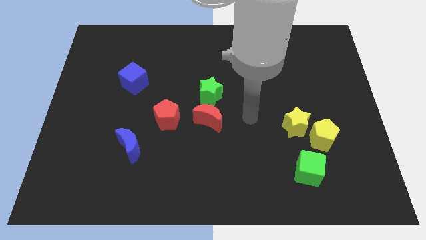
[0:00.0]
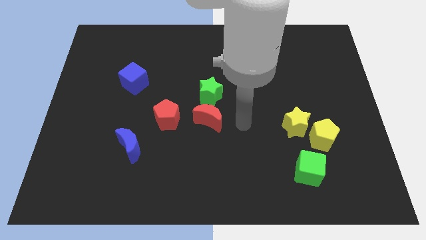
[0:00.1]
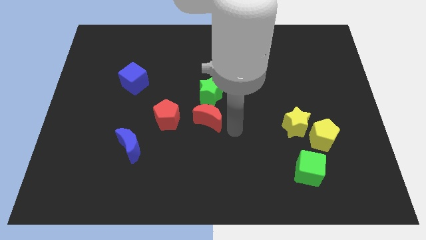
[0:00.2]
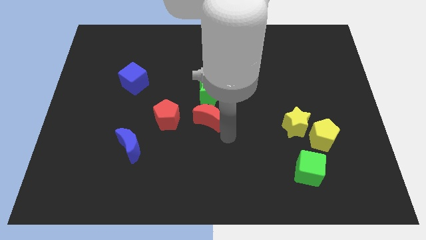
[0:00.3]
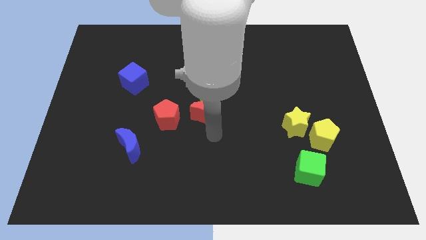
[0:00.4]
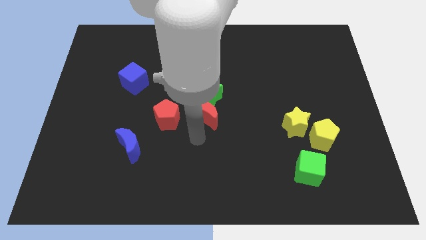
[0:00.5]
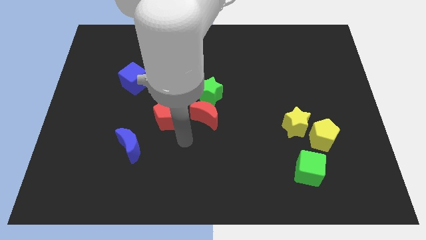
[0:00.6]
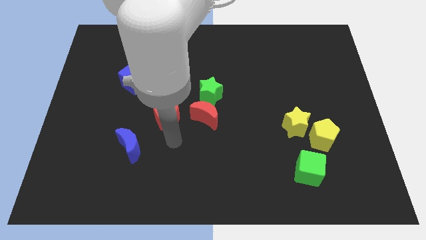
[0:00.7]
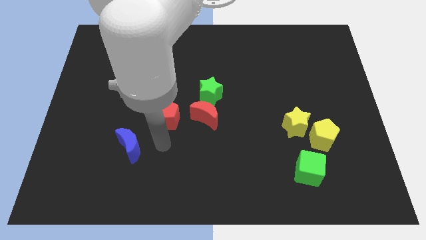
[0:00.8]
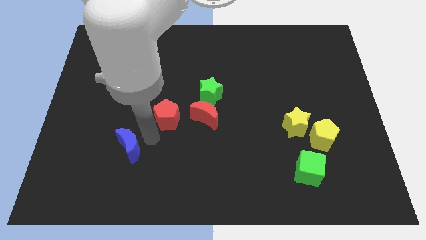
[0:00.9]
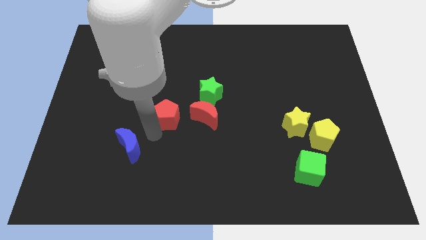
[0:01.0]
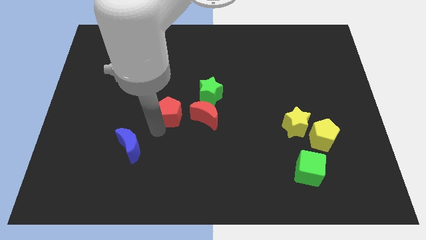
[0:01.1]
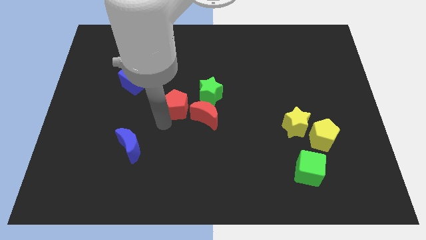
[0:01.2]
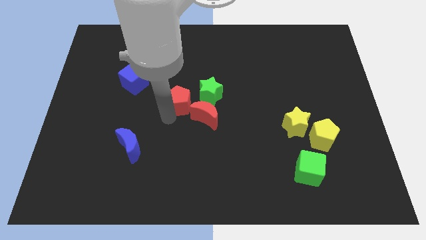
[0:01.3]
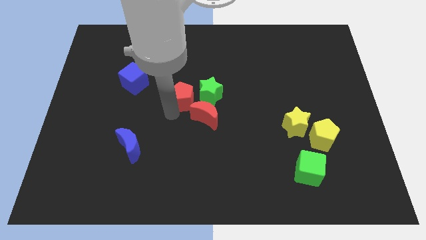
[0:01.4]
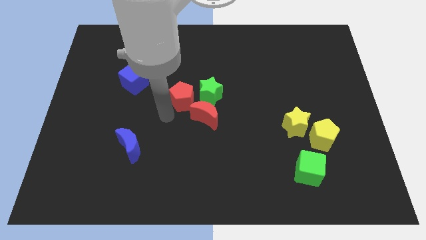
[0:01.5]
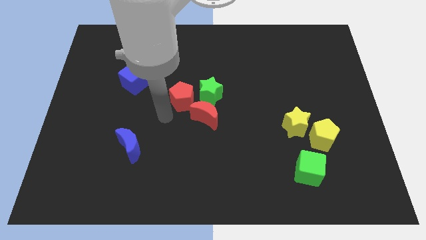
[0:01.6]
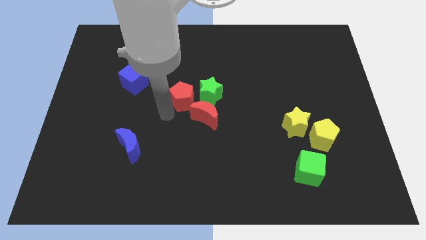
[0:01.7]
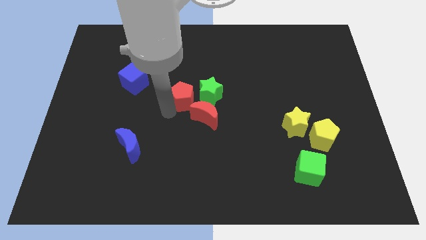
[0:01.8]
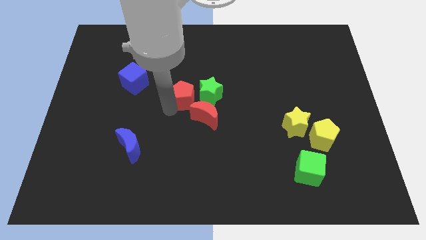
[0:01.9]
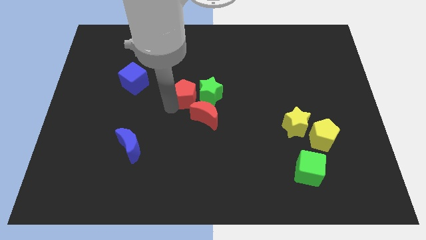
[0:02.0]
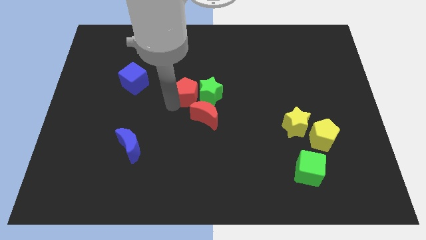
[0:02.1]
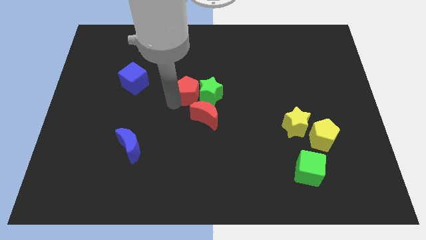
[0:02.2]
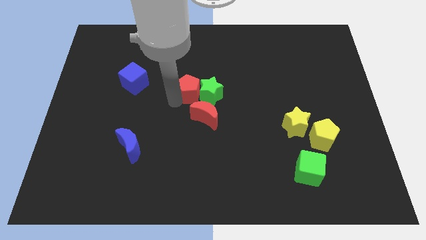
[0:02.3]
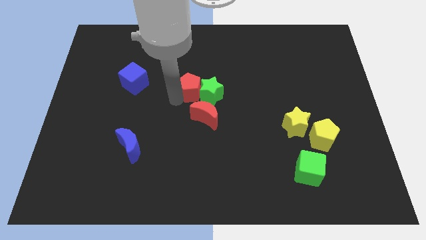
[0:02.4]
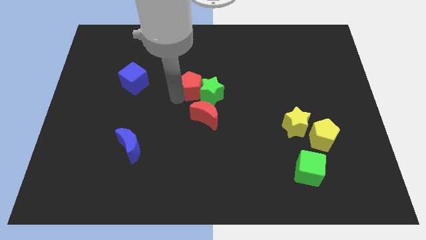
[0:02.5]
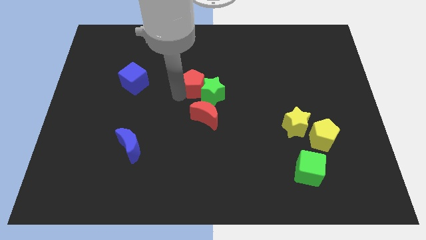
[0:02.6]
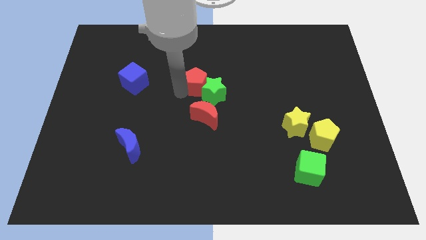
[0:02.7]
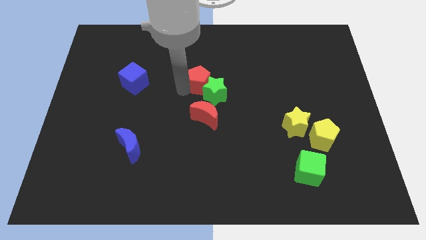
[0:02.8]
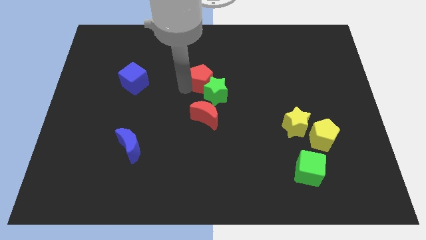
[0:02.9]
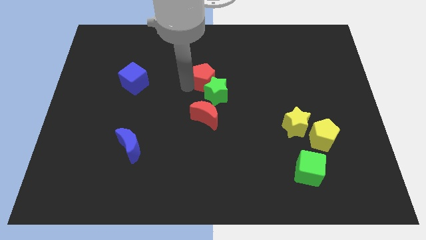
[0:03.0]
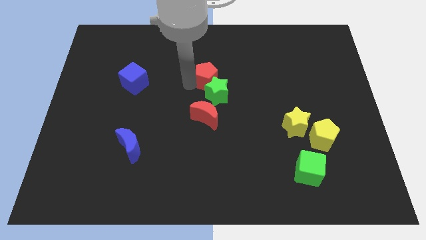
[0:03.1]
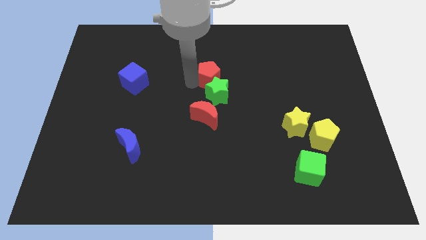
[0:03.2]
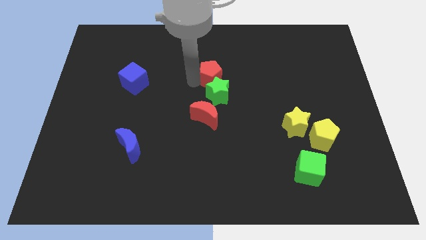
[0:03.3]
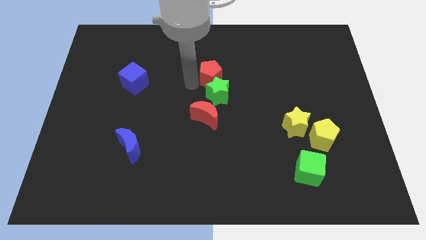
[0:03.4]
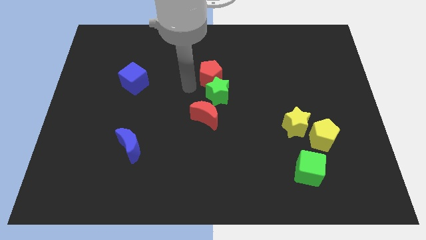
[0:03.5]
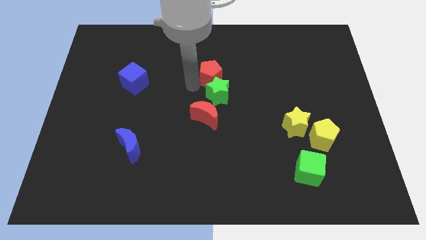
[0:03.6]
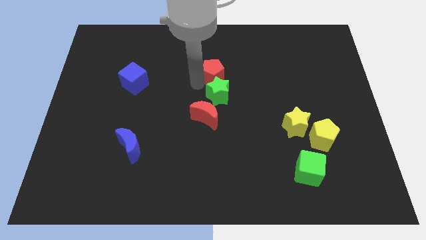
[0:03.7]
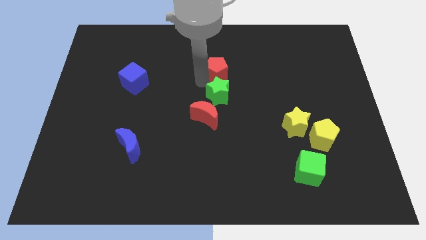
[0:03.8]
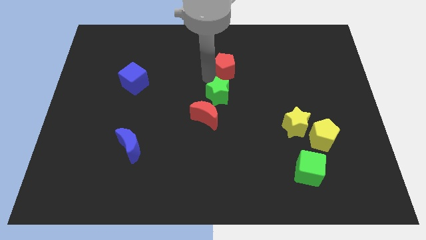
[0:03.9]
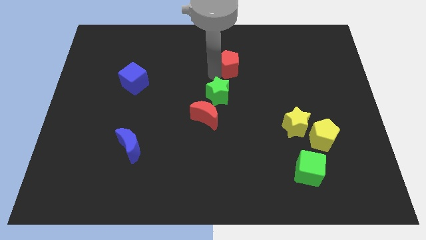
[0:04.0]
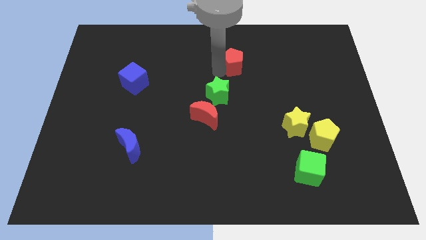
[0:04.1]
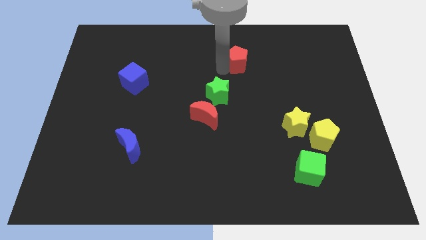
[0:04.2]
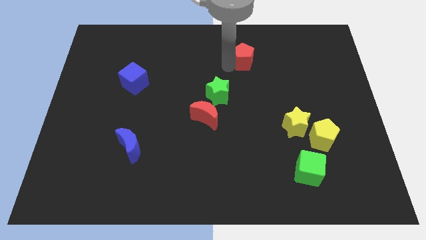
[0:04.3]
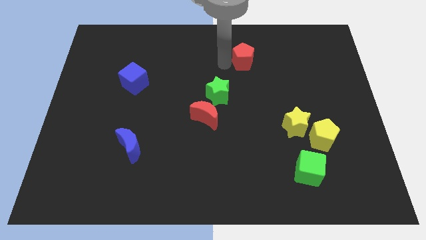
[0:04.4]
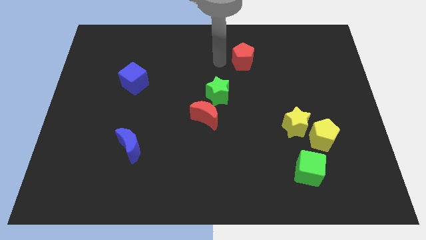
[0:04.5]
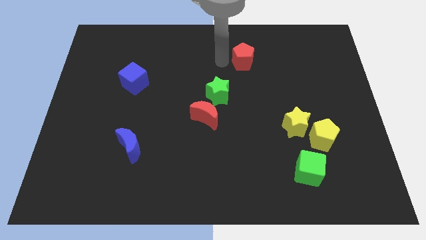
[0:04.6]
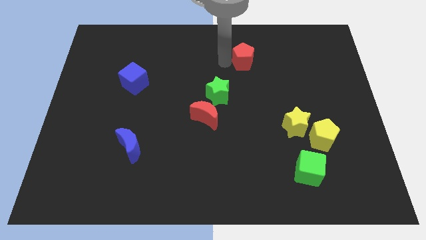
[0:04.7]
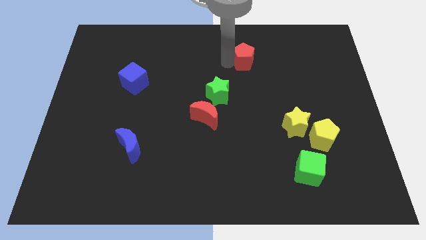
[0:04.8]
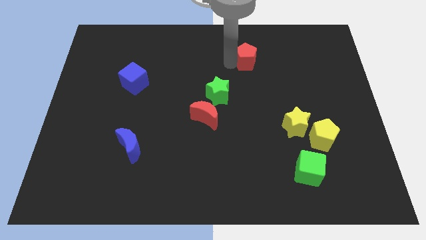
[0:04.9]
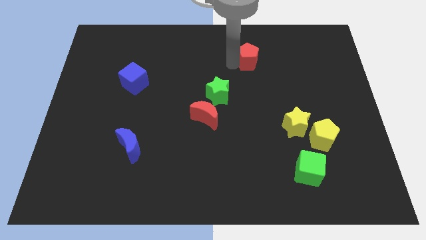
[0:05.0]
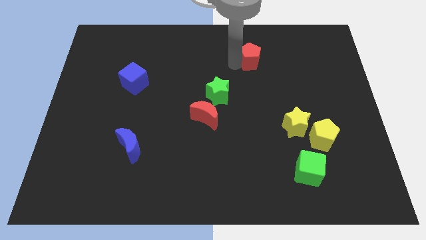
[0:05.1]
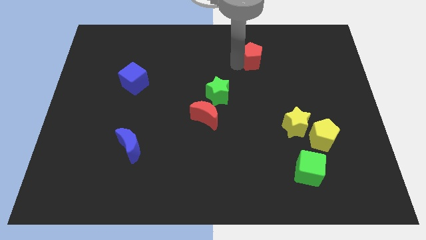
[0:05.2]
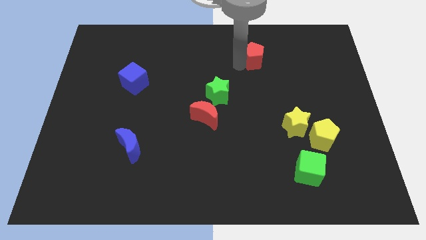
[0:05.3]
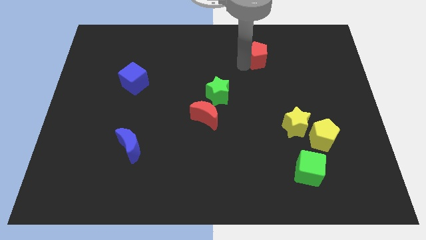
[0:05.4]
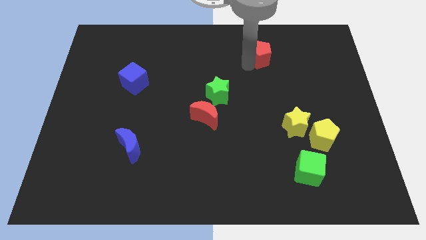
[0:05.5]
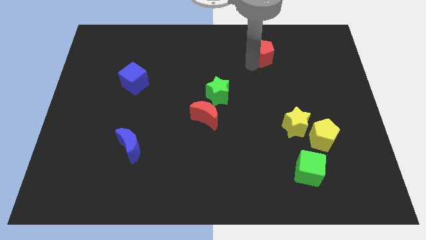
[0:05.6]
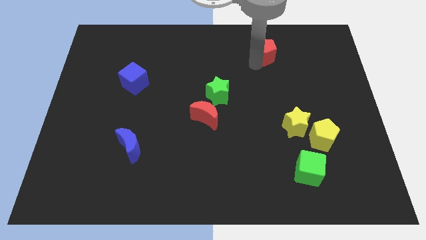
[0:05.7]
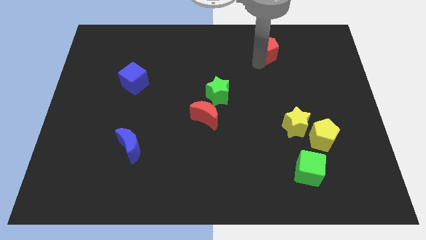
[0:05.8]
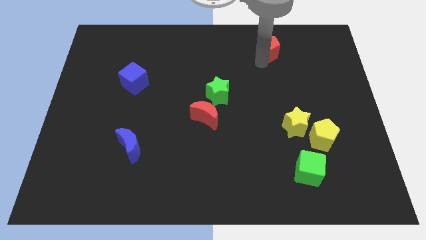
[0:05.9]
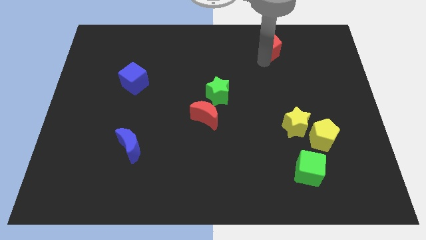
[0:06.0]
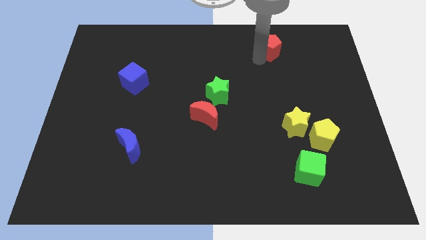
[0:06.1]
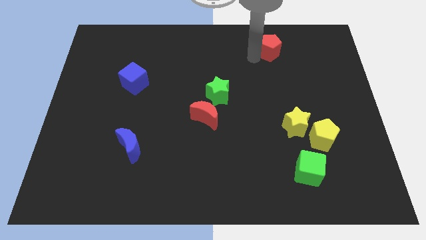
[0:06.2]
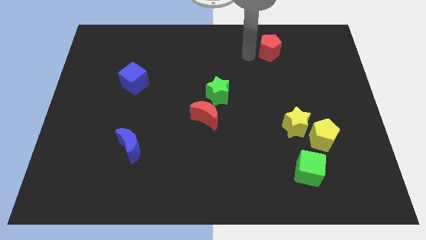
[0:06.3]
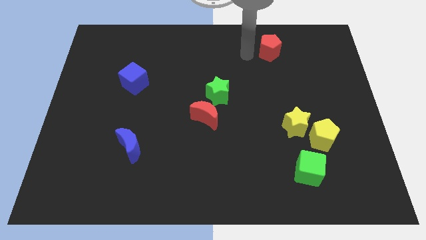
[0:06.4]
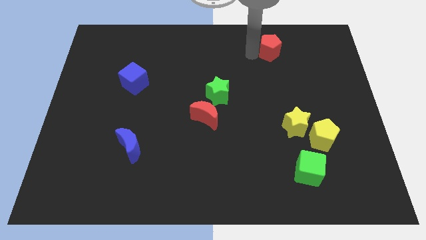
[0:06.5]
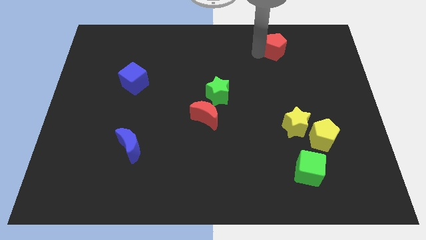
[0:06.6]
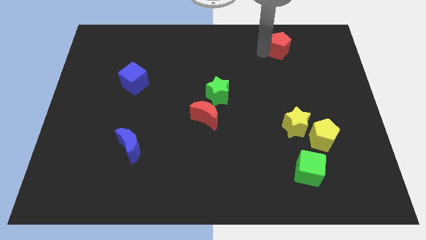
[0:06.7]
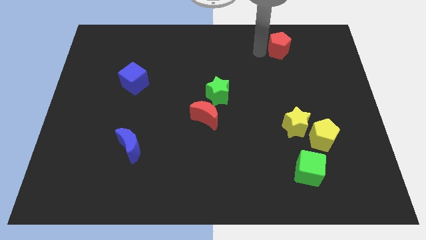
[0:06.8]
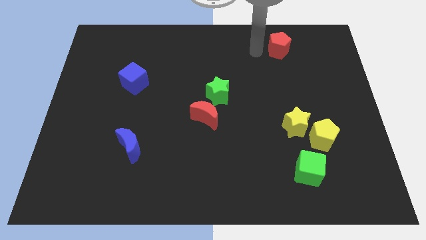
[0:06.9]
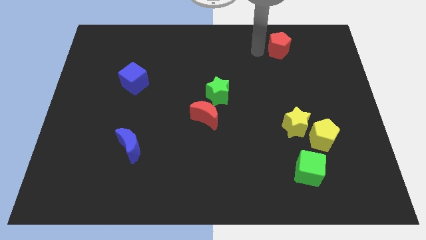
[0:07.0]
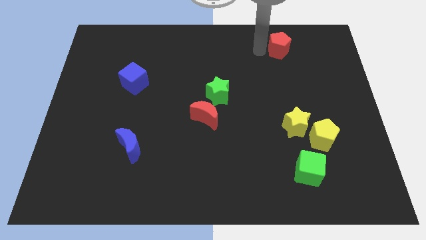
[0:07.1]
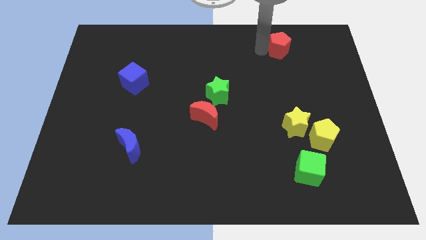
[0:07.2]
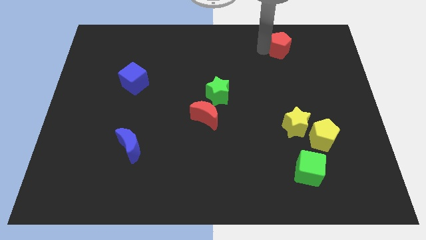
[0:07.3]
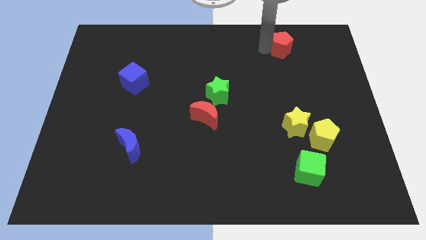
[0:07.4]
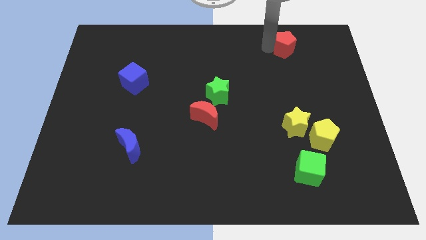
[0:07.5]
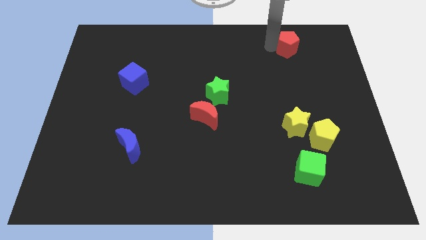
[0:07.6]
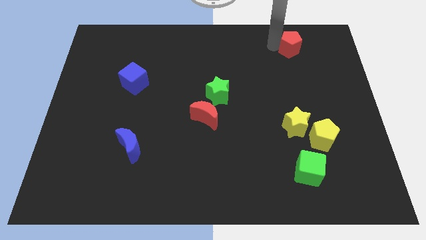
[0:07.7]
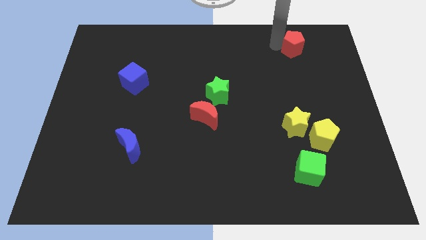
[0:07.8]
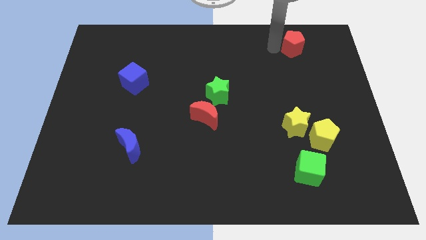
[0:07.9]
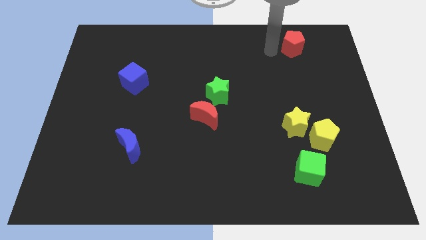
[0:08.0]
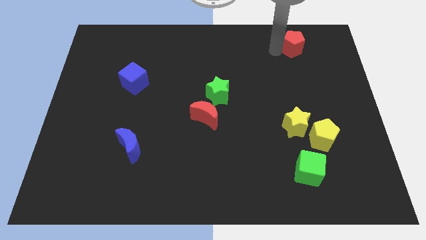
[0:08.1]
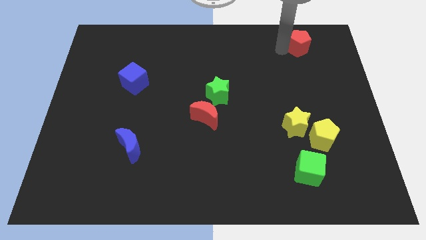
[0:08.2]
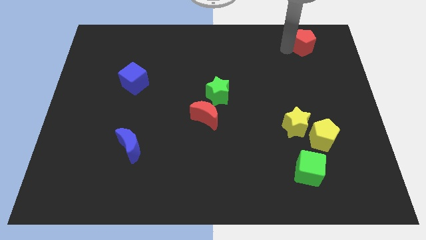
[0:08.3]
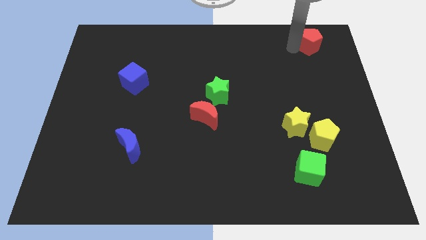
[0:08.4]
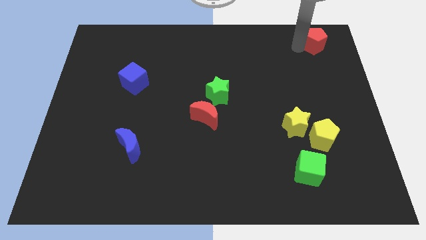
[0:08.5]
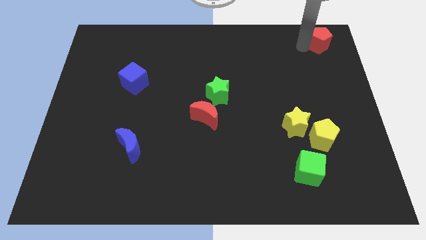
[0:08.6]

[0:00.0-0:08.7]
slide the red pentagon to the top right
